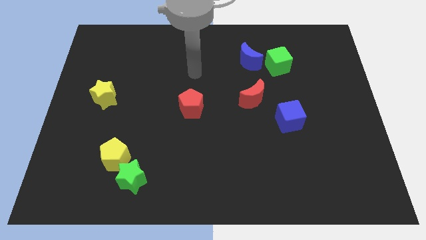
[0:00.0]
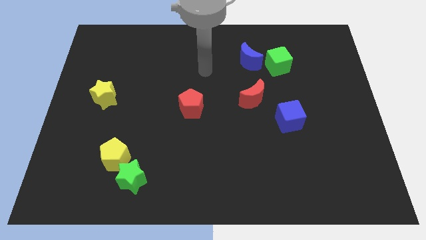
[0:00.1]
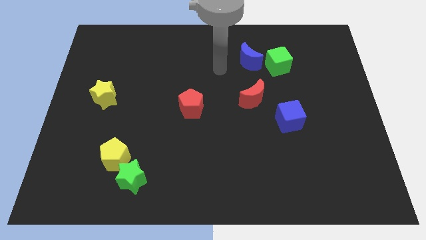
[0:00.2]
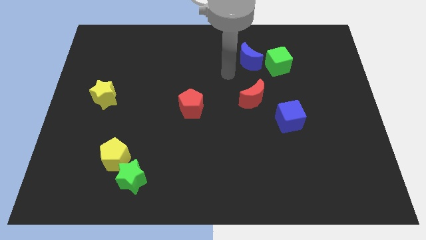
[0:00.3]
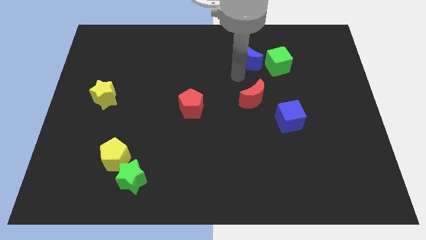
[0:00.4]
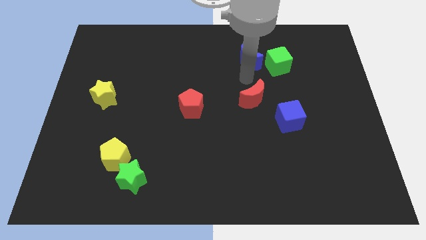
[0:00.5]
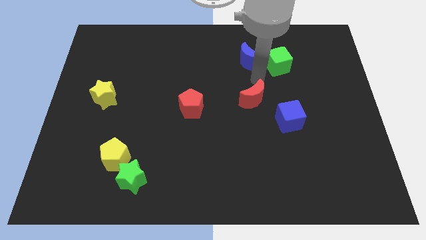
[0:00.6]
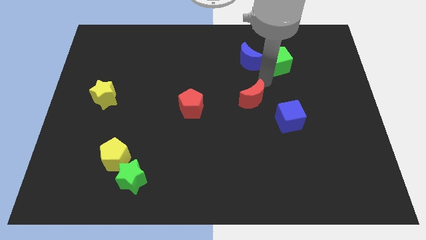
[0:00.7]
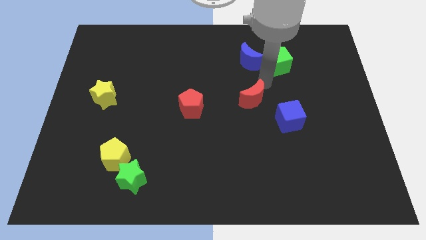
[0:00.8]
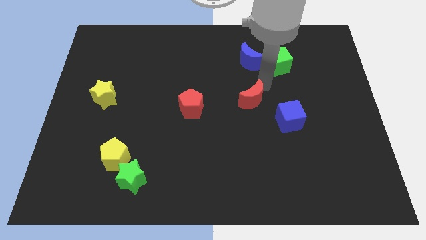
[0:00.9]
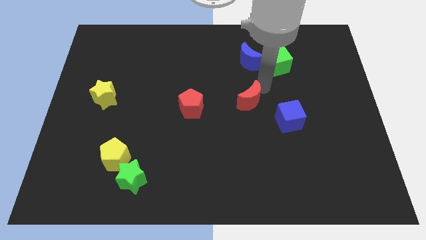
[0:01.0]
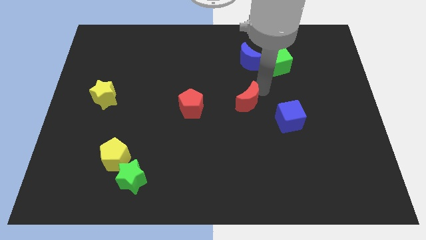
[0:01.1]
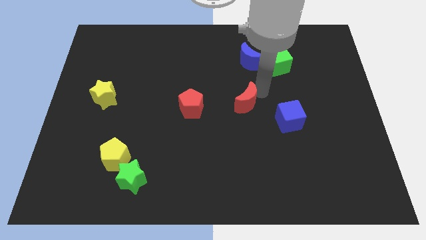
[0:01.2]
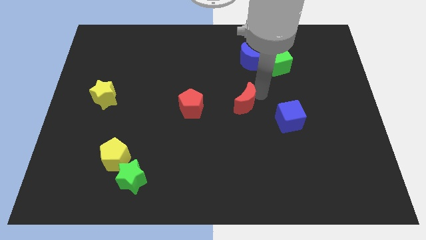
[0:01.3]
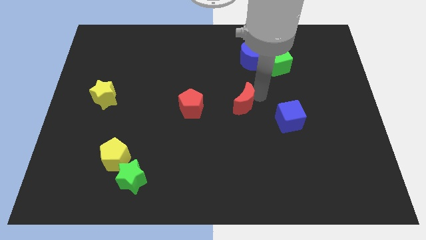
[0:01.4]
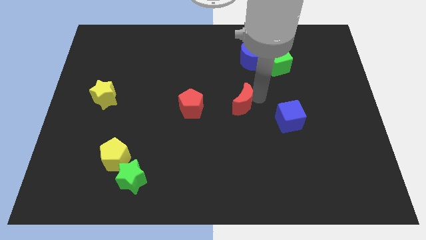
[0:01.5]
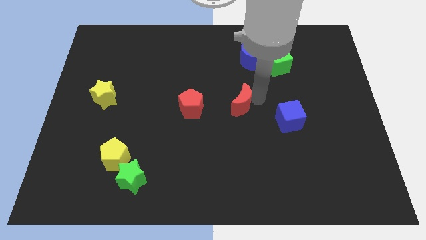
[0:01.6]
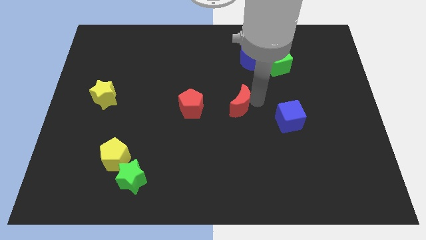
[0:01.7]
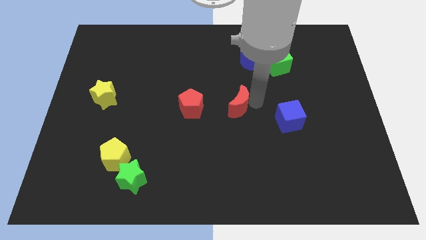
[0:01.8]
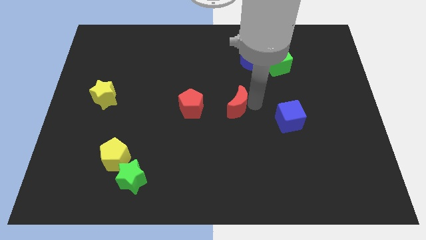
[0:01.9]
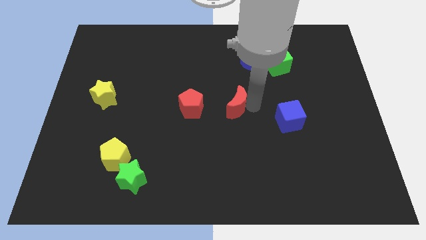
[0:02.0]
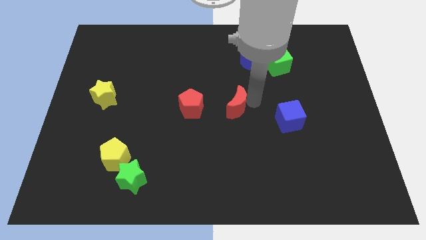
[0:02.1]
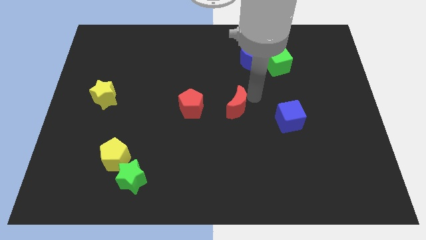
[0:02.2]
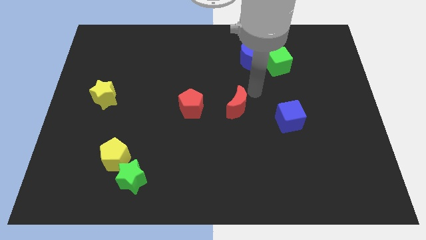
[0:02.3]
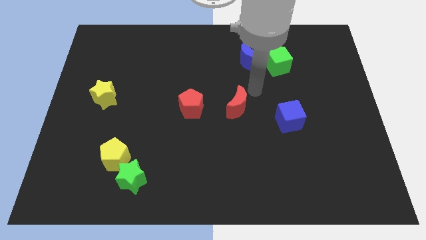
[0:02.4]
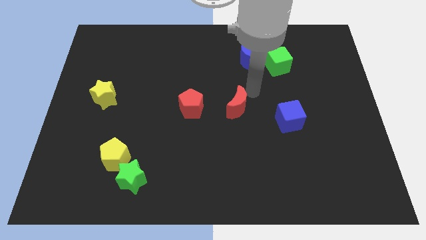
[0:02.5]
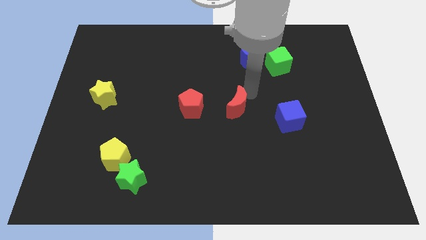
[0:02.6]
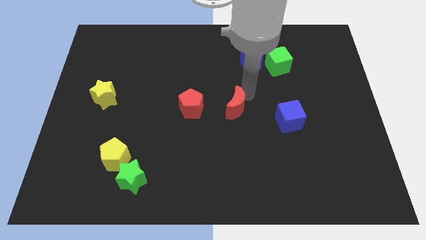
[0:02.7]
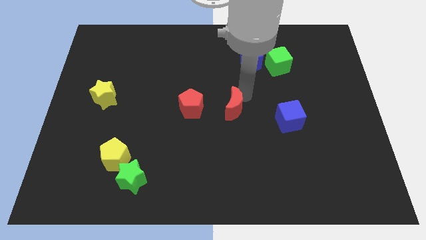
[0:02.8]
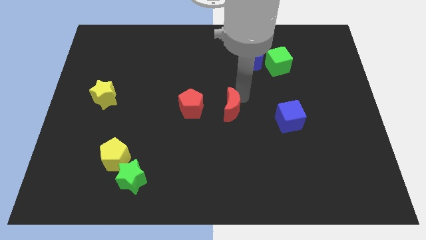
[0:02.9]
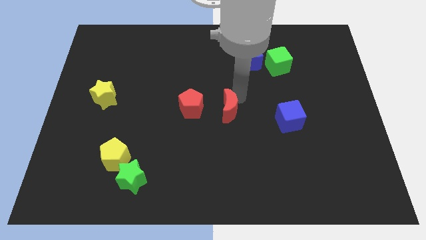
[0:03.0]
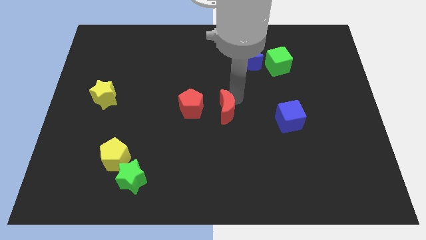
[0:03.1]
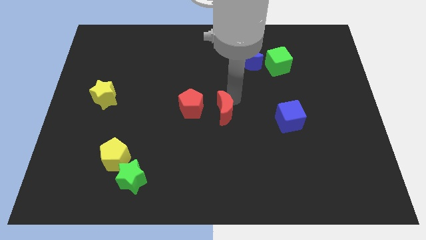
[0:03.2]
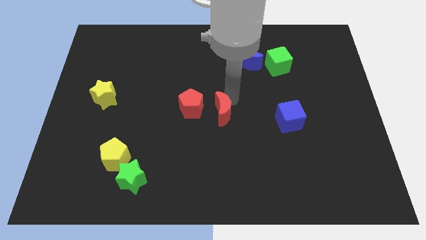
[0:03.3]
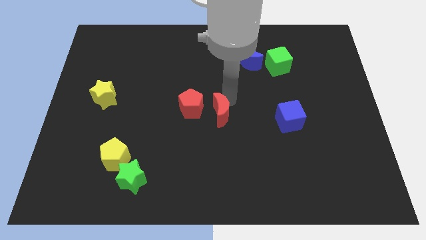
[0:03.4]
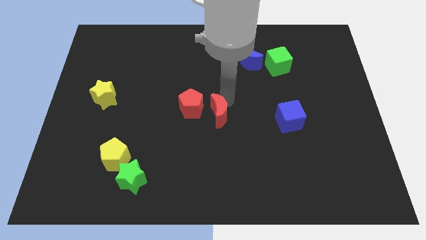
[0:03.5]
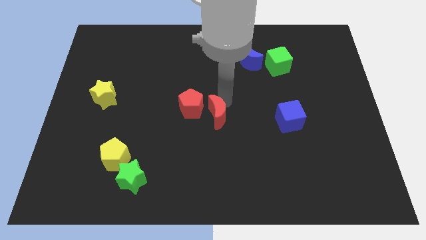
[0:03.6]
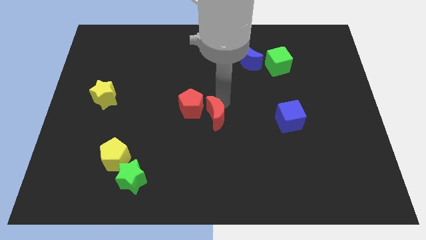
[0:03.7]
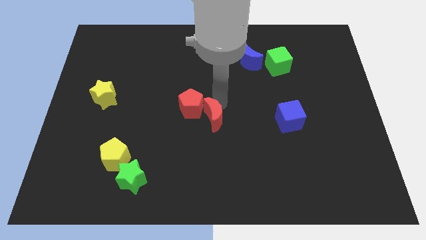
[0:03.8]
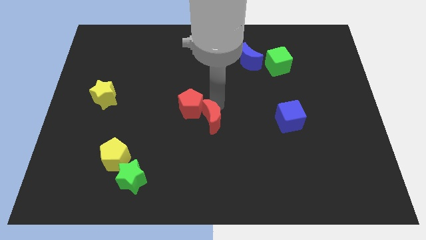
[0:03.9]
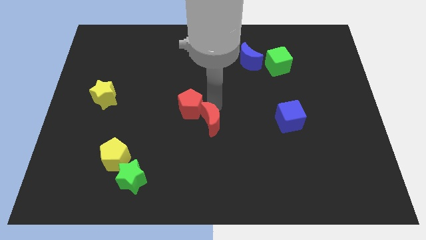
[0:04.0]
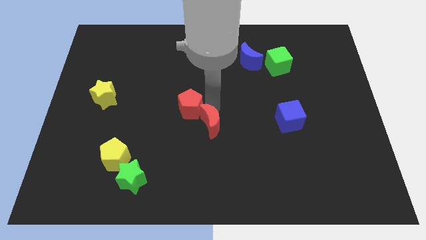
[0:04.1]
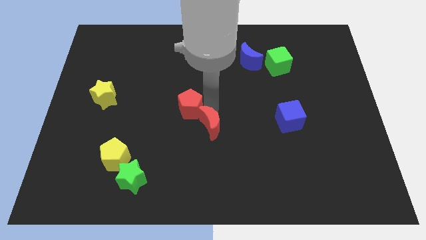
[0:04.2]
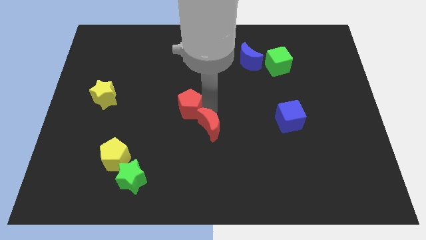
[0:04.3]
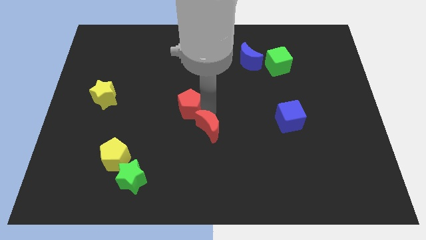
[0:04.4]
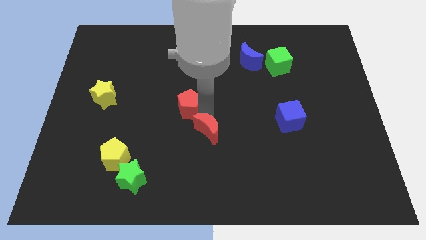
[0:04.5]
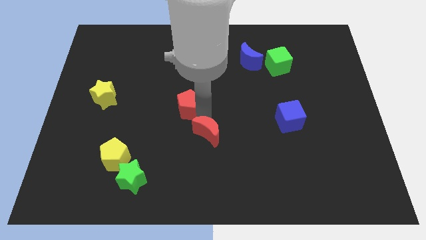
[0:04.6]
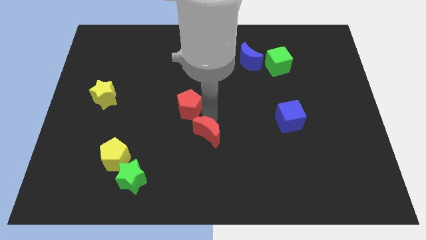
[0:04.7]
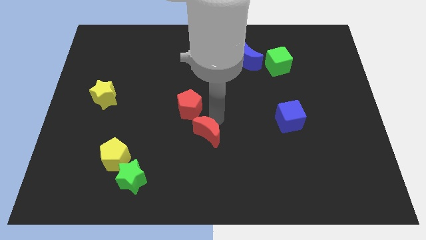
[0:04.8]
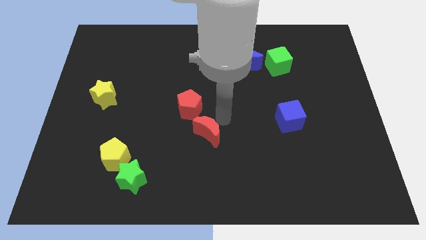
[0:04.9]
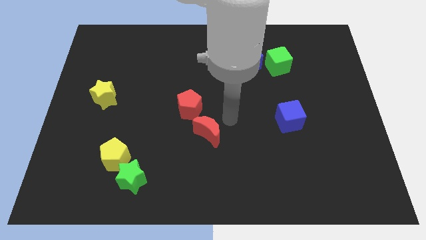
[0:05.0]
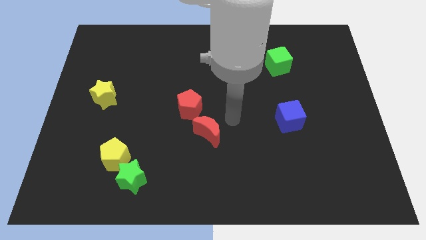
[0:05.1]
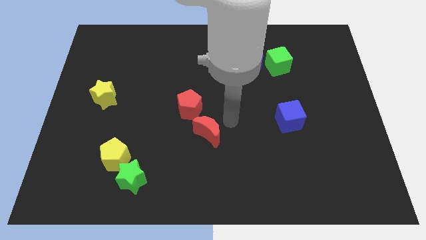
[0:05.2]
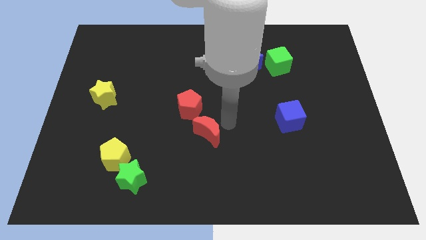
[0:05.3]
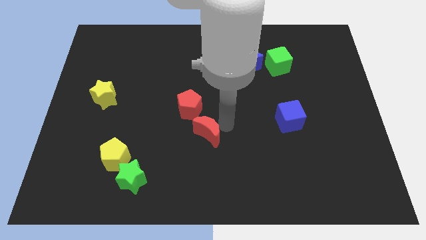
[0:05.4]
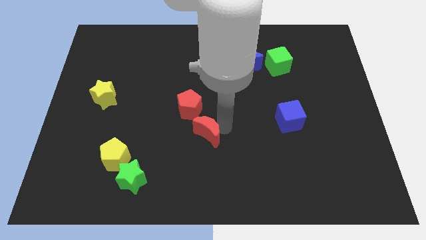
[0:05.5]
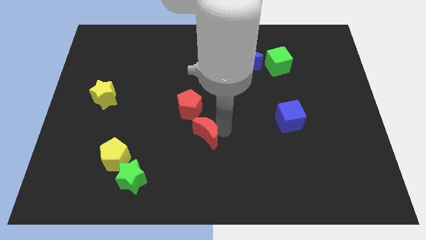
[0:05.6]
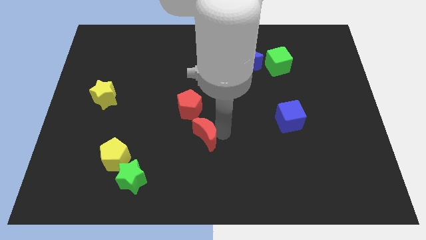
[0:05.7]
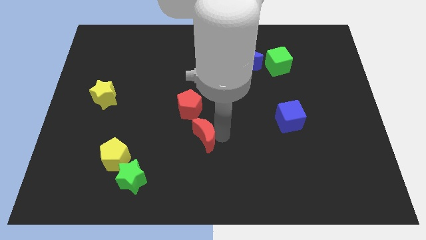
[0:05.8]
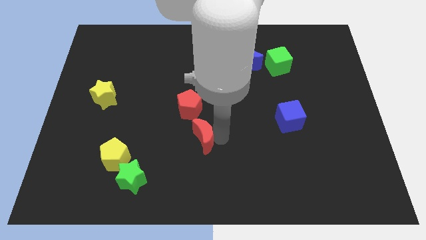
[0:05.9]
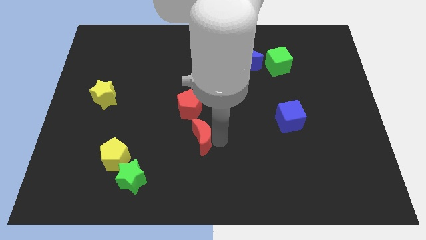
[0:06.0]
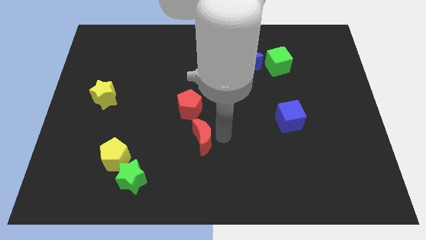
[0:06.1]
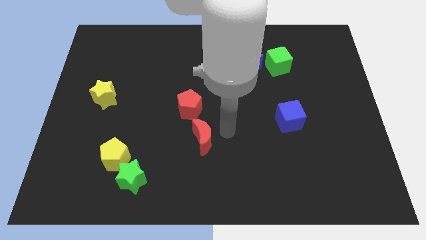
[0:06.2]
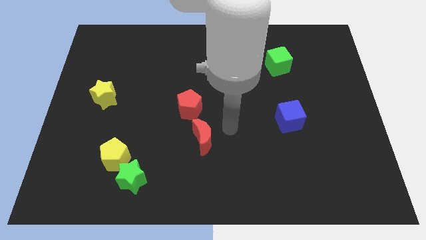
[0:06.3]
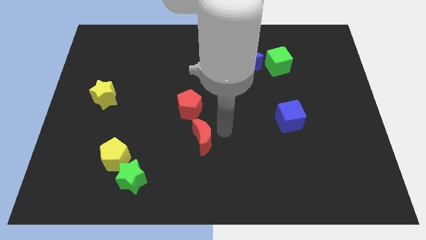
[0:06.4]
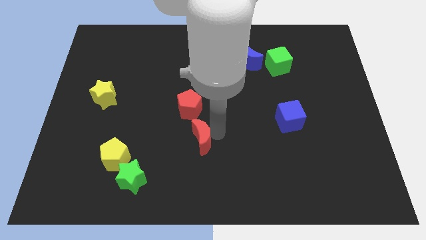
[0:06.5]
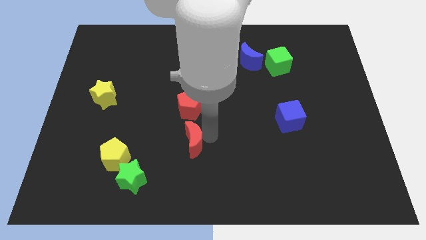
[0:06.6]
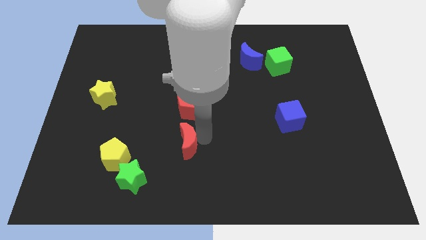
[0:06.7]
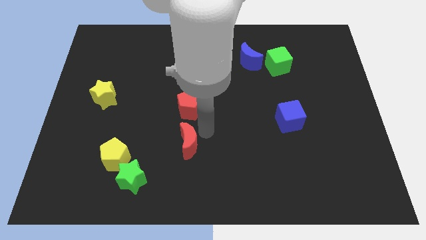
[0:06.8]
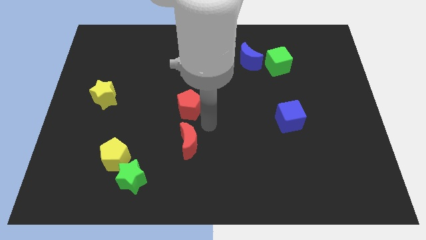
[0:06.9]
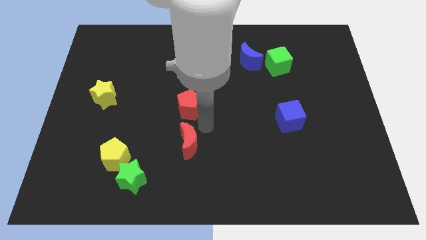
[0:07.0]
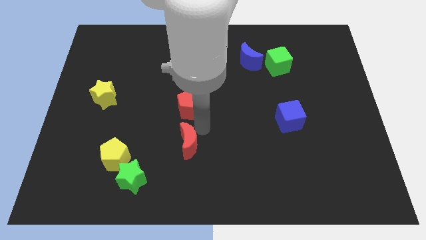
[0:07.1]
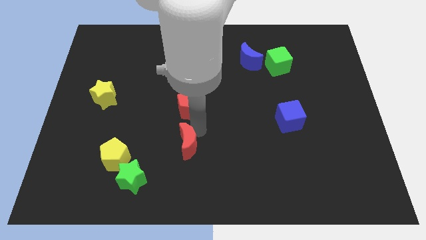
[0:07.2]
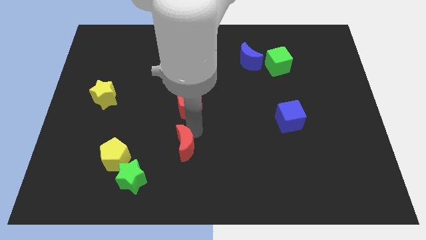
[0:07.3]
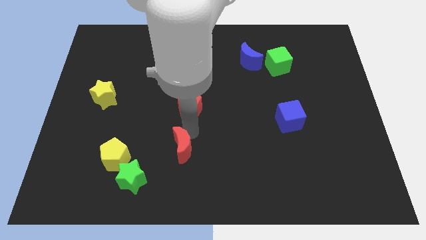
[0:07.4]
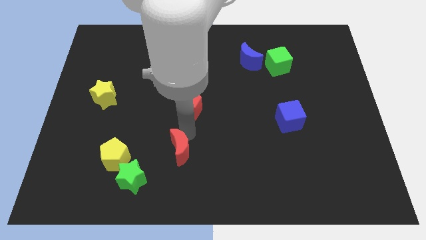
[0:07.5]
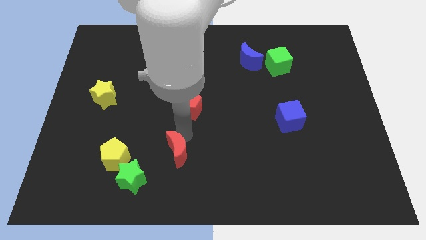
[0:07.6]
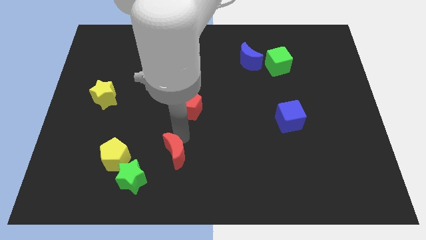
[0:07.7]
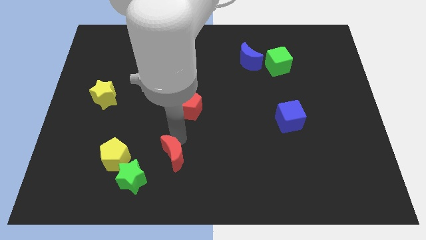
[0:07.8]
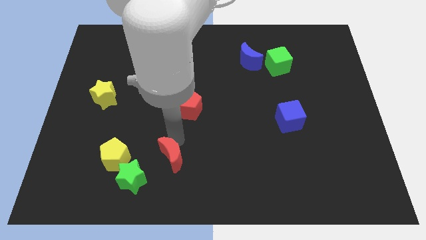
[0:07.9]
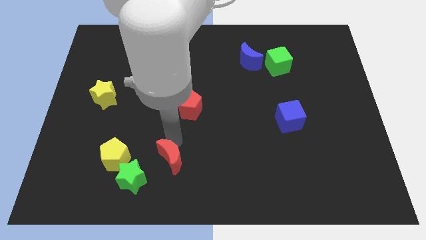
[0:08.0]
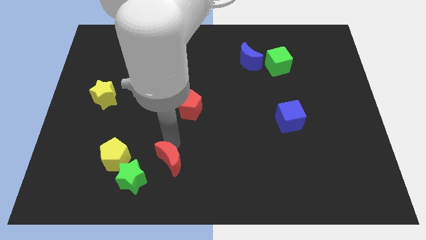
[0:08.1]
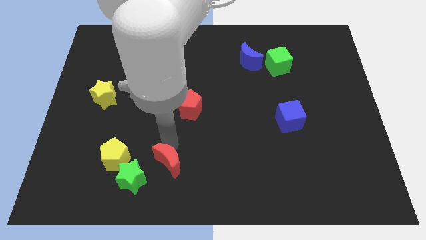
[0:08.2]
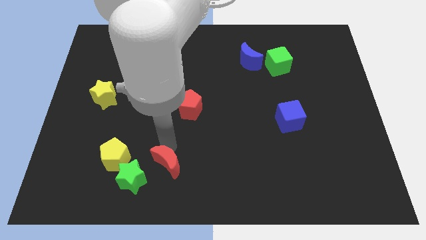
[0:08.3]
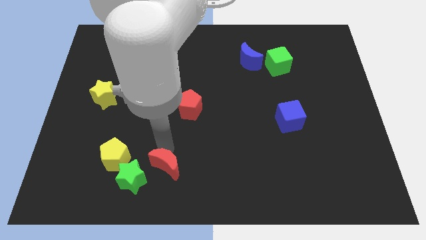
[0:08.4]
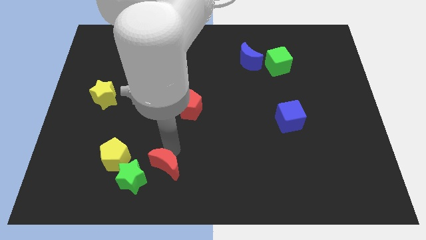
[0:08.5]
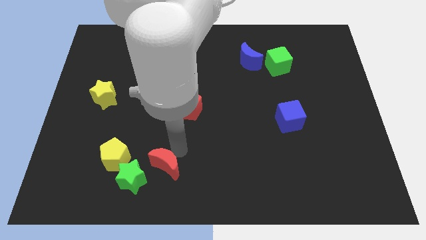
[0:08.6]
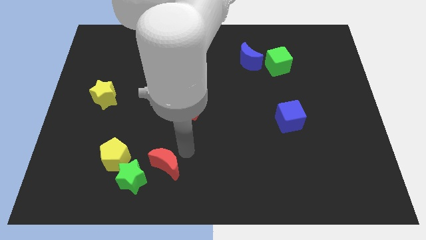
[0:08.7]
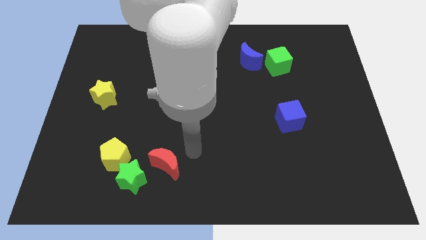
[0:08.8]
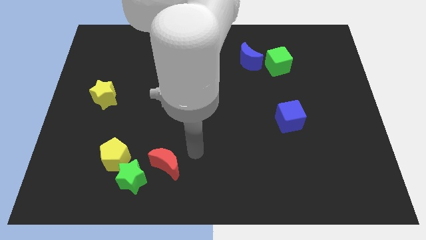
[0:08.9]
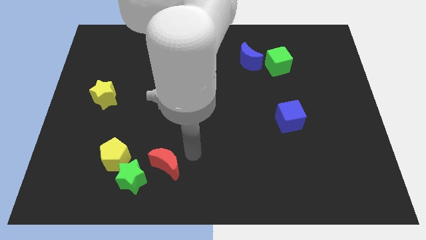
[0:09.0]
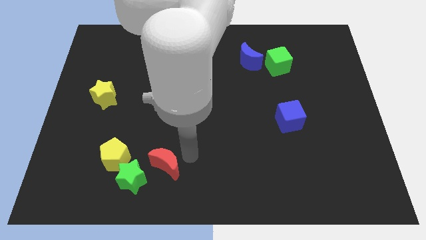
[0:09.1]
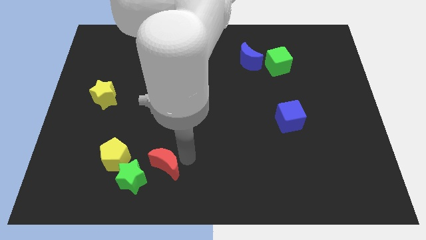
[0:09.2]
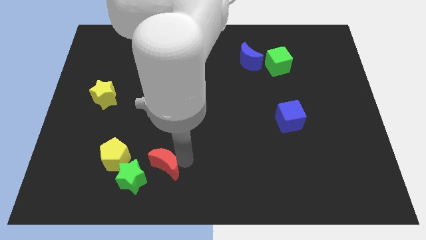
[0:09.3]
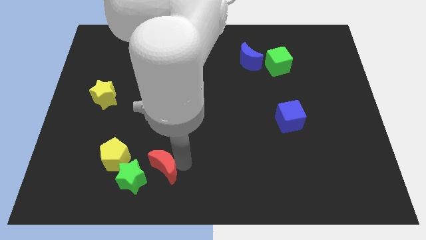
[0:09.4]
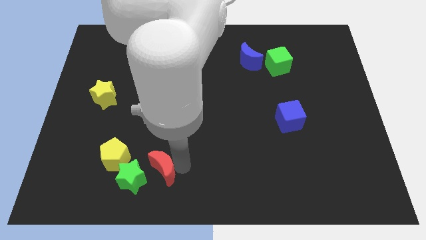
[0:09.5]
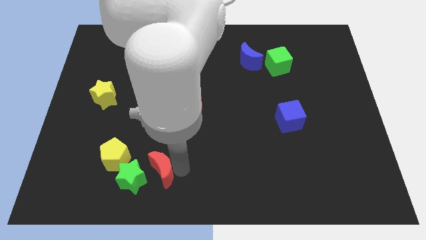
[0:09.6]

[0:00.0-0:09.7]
move the red moon to the green star
